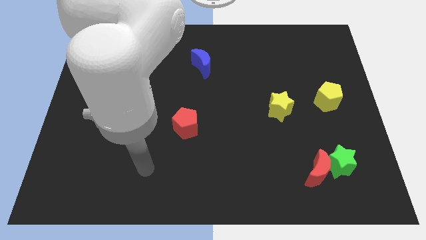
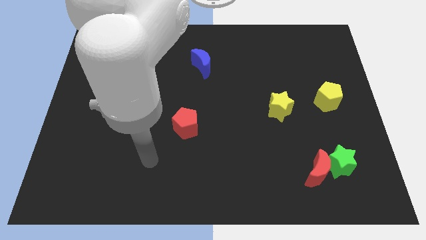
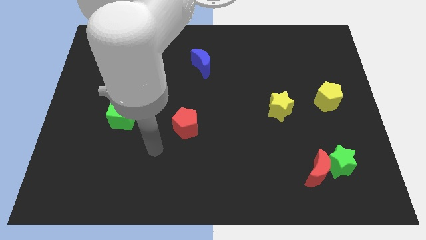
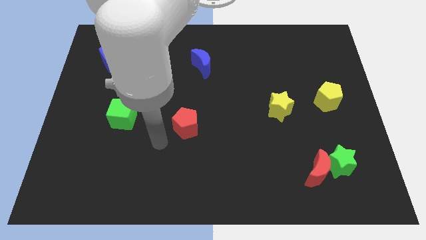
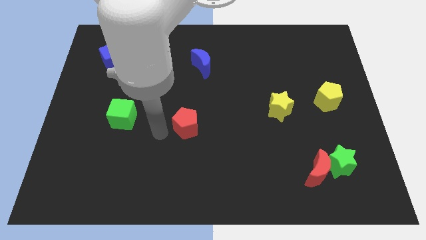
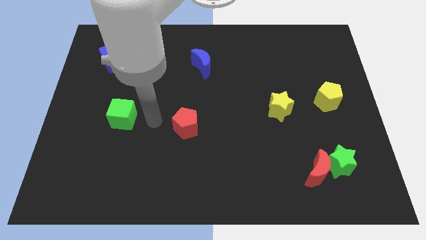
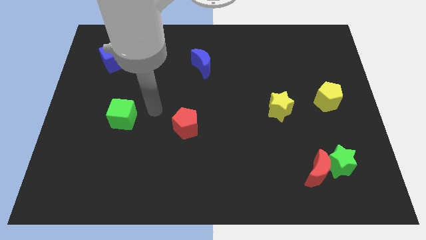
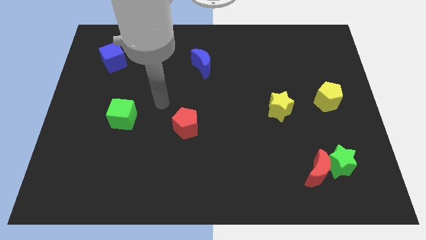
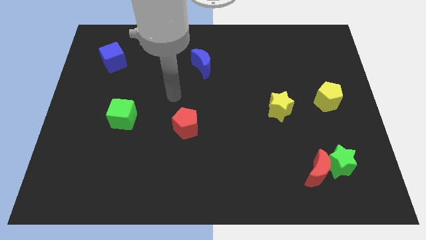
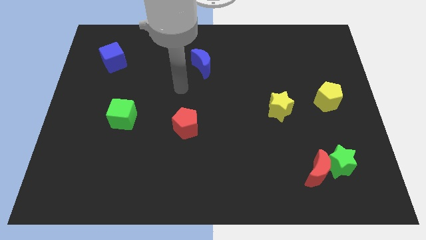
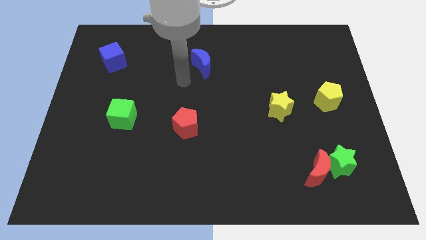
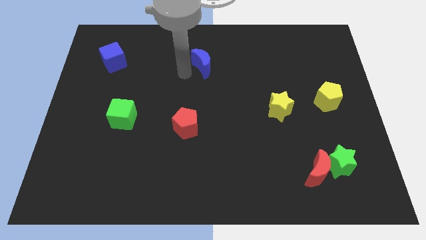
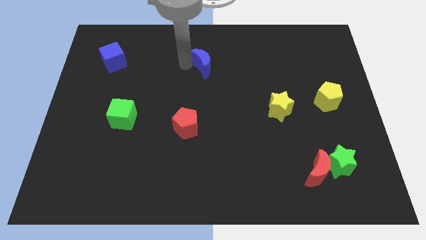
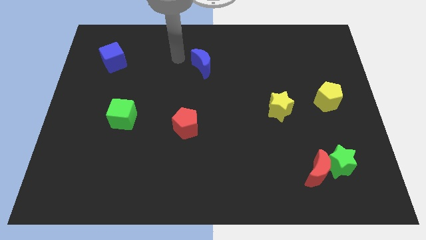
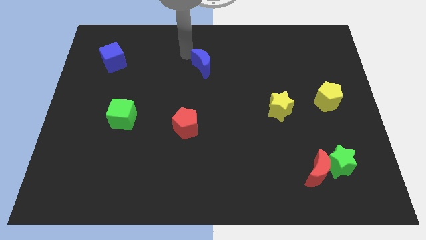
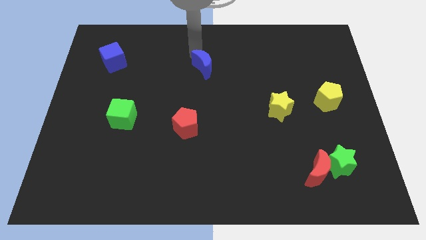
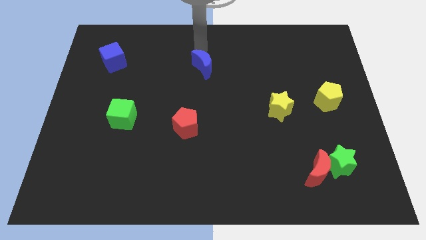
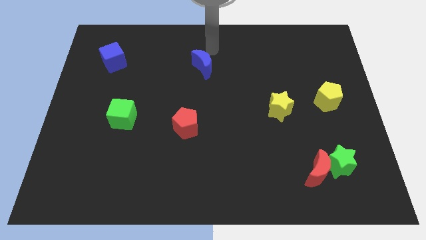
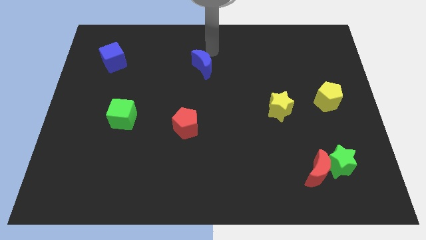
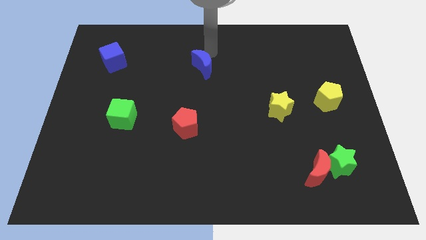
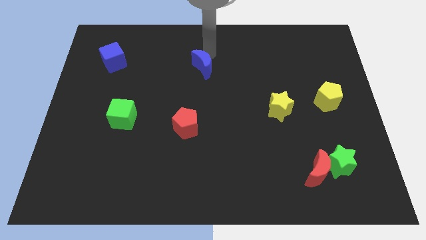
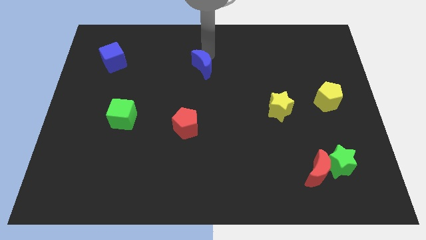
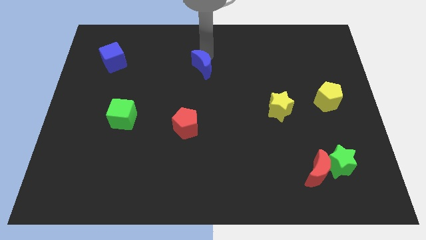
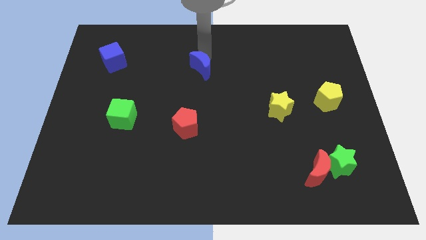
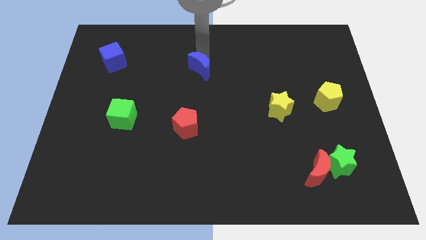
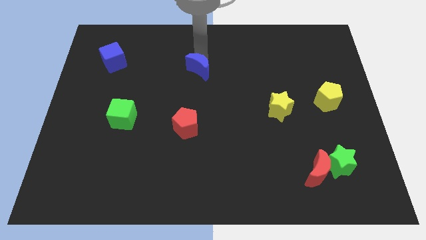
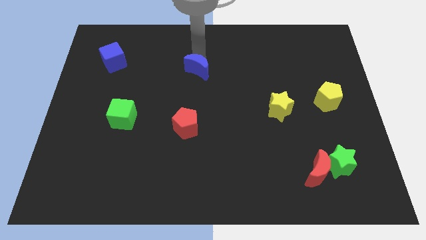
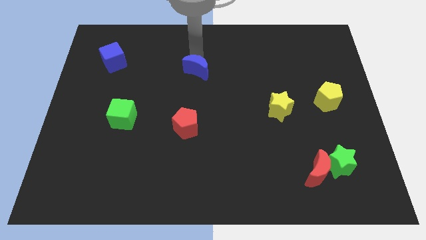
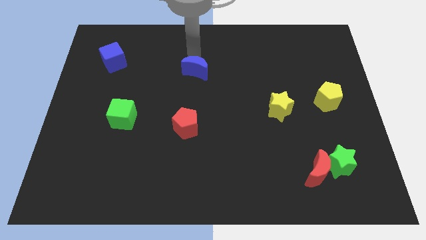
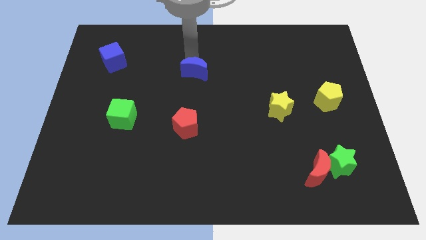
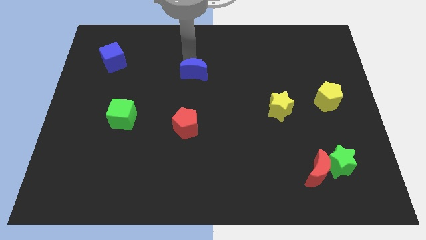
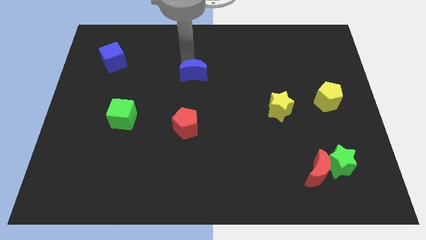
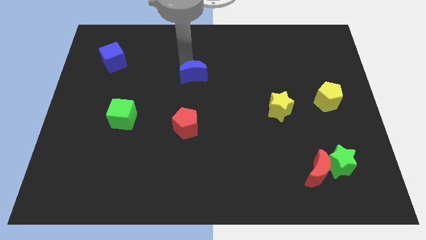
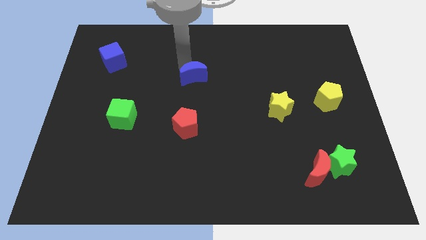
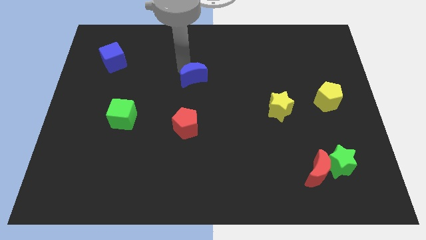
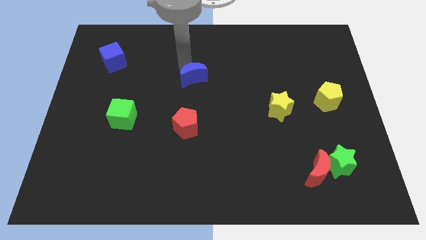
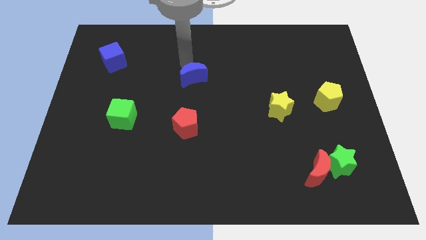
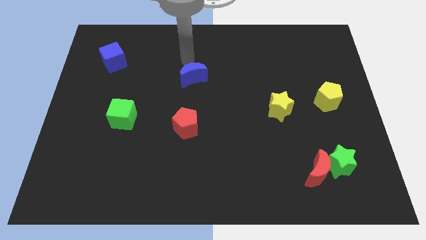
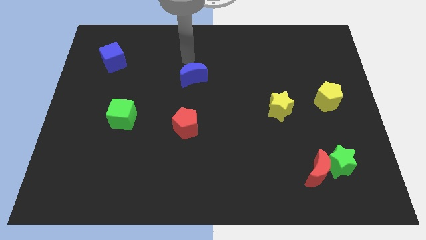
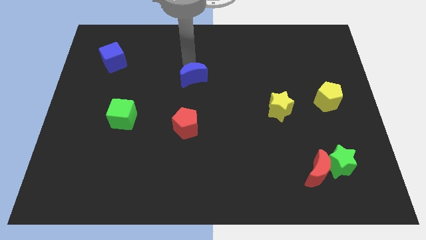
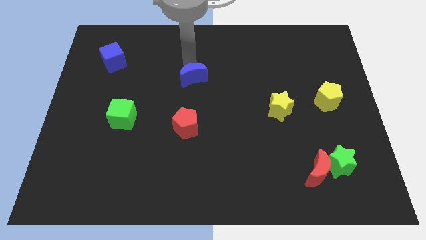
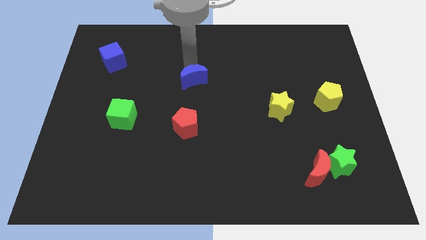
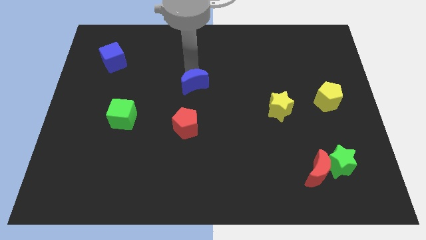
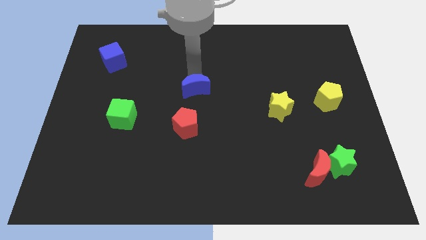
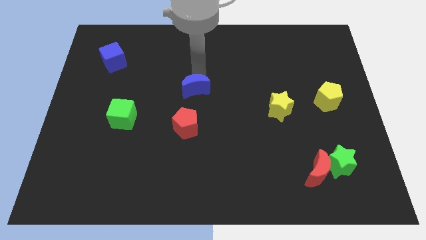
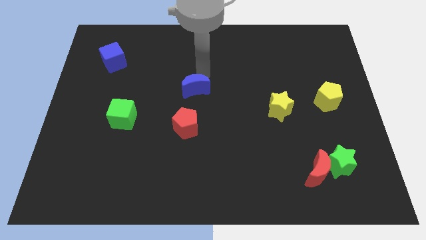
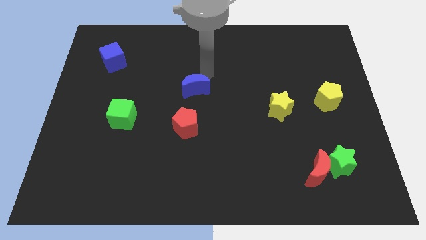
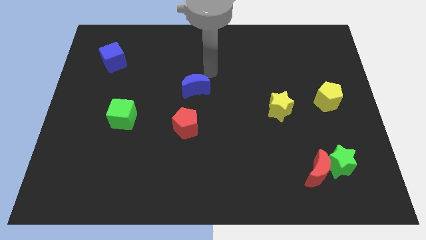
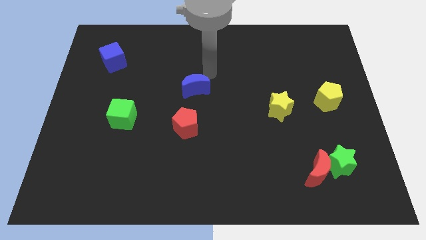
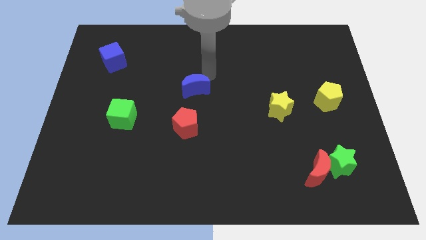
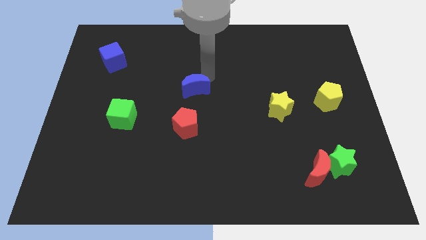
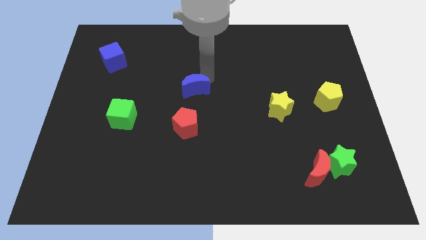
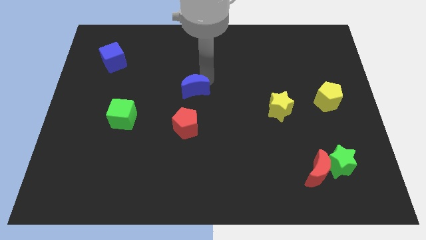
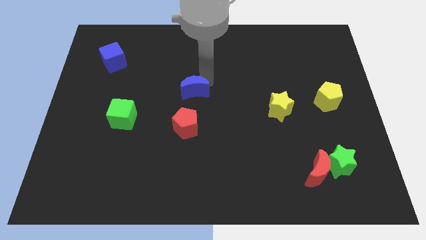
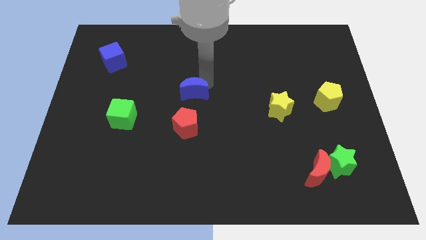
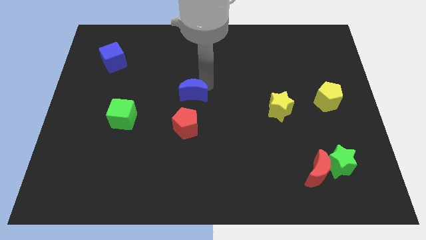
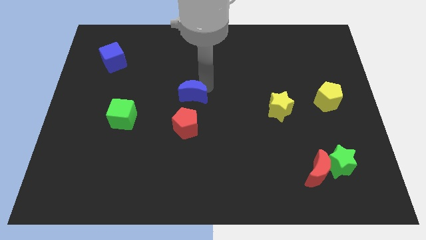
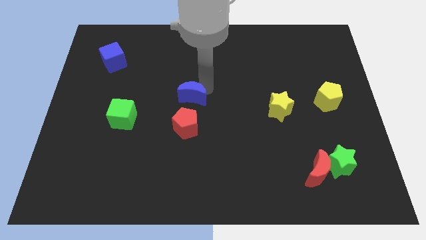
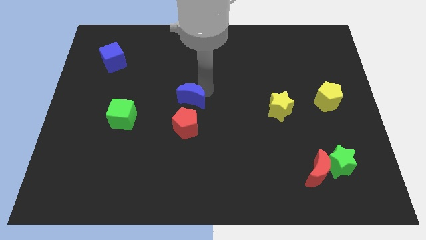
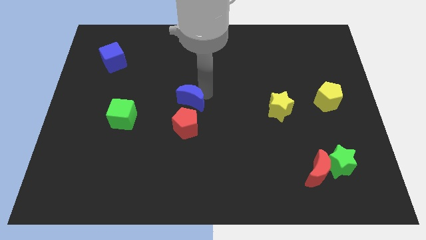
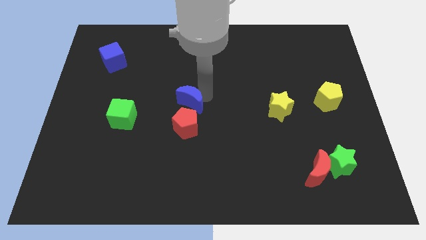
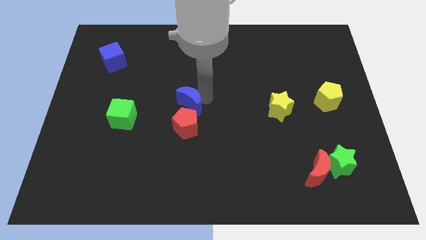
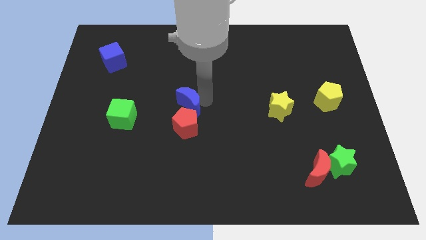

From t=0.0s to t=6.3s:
push the blue moon to the top left side of the red pentagon

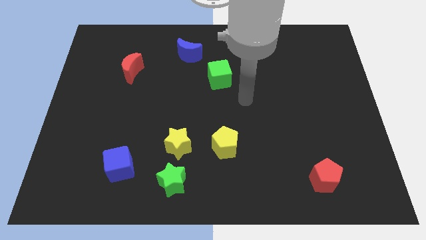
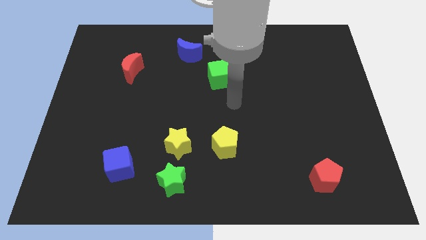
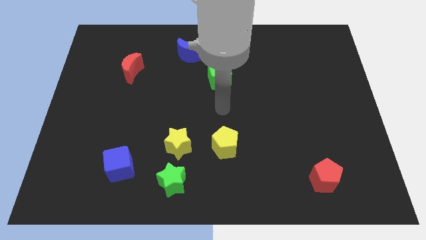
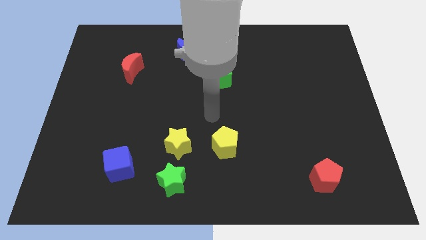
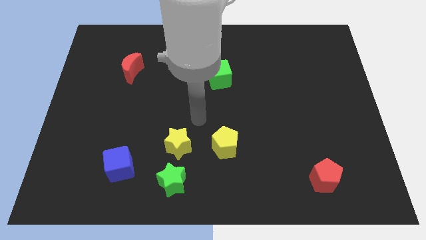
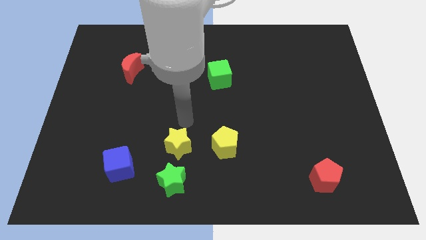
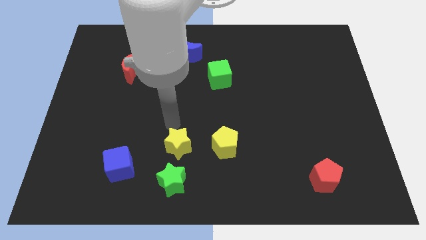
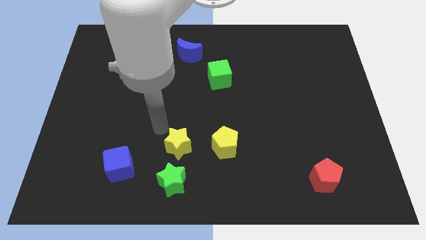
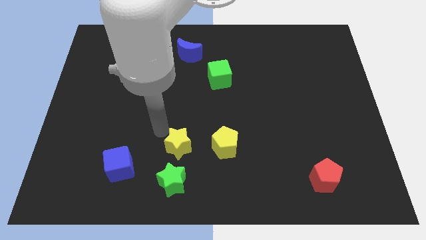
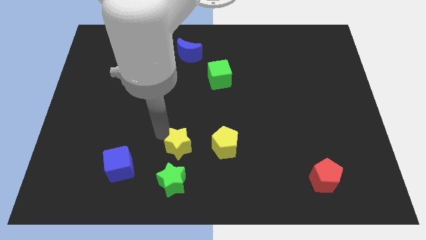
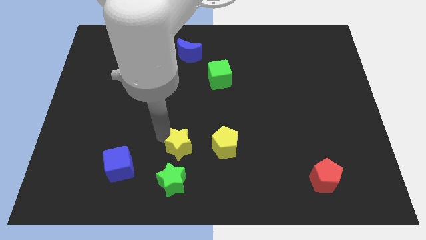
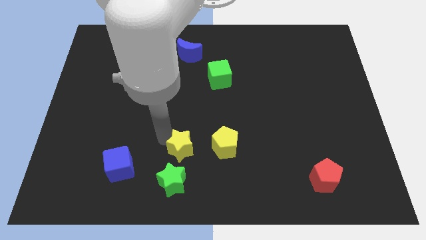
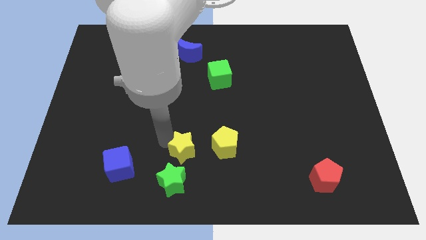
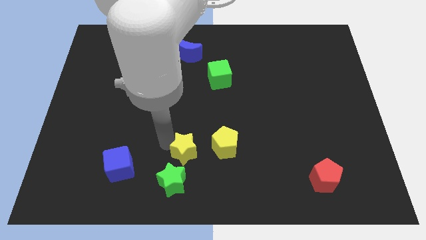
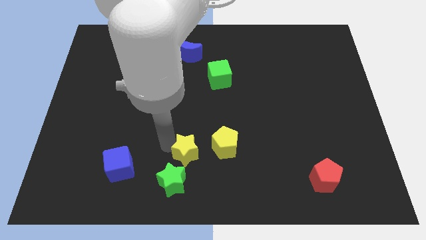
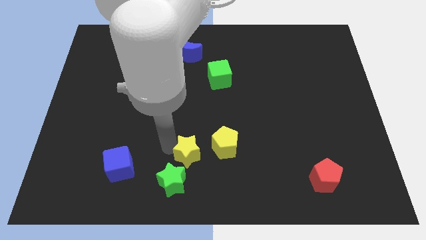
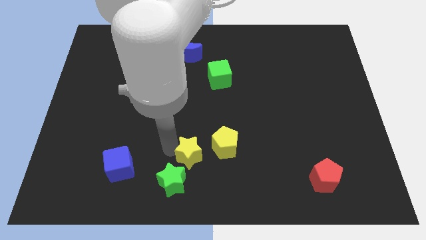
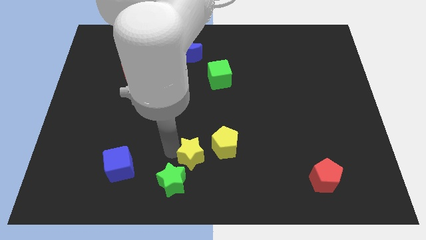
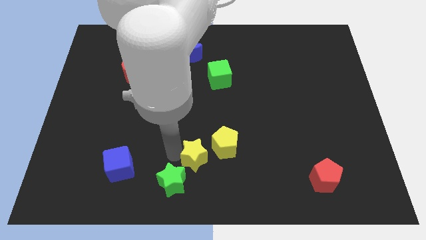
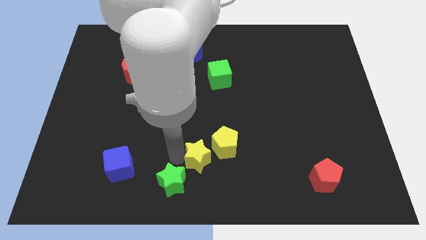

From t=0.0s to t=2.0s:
move the yellow star to the right side of the green star
